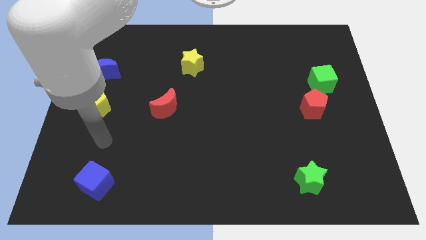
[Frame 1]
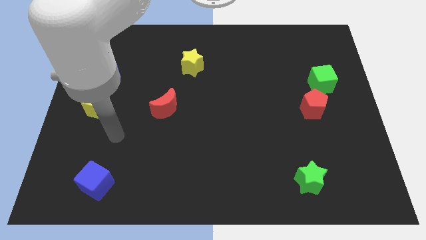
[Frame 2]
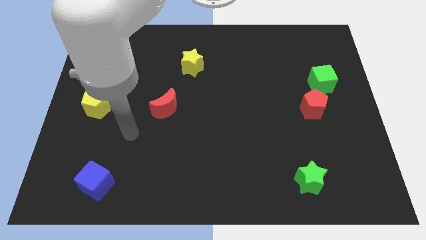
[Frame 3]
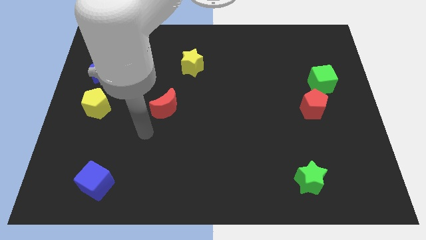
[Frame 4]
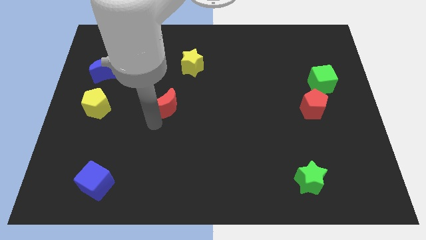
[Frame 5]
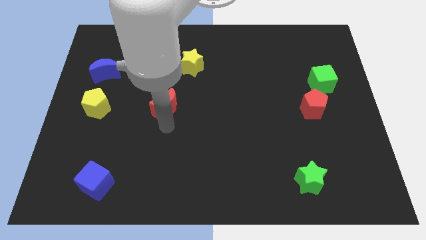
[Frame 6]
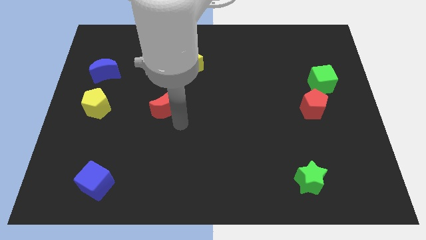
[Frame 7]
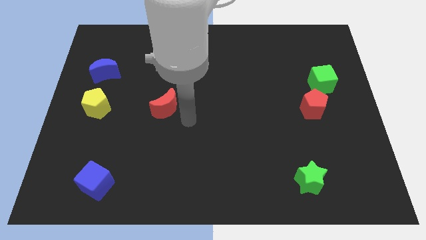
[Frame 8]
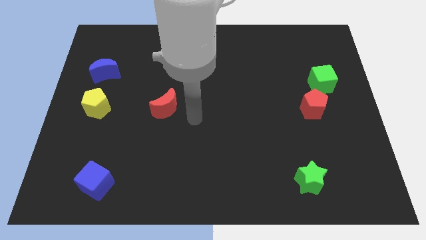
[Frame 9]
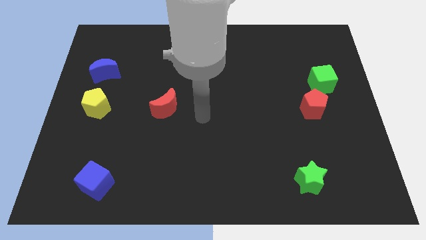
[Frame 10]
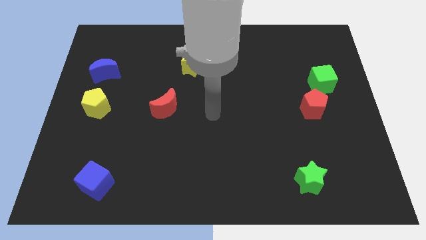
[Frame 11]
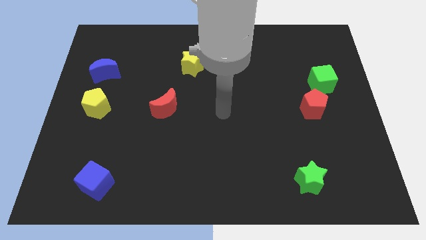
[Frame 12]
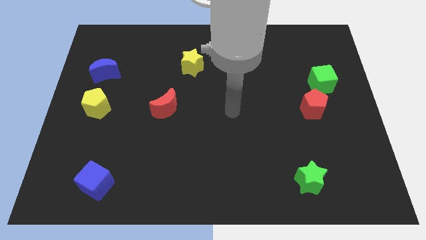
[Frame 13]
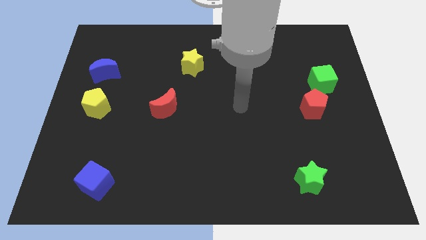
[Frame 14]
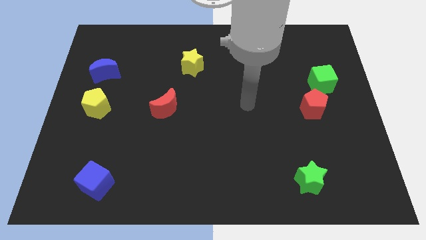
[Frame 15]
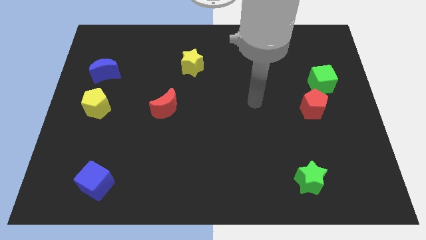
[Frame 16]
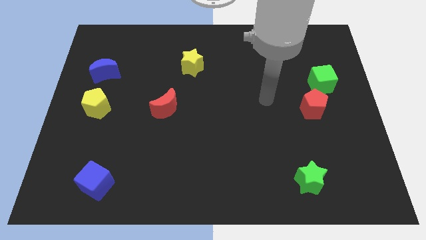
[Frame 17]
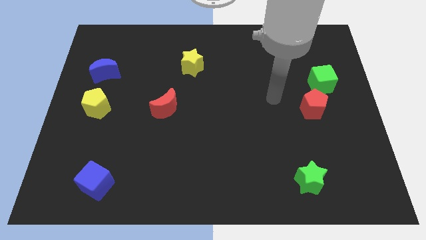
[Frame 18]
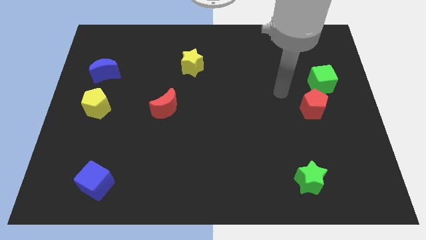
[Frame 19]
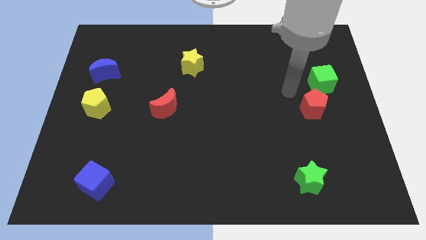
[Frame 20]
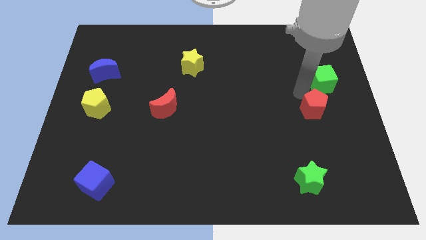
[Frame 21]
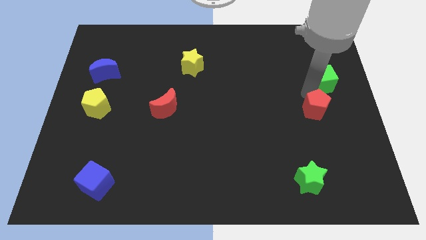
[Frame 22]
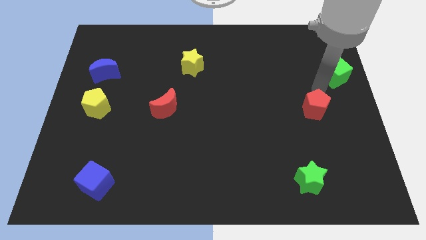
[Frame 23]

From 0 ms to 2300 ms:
pull the red pentagon apart from the green cube

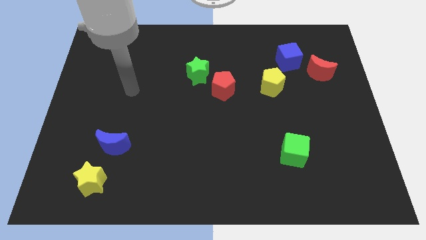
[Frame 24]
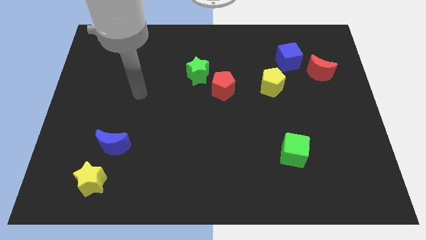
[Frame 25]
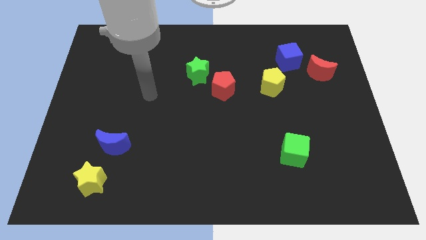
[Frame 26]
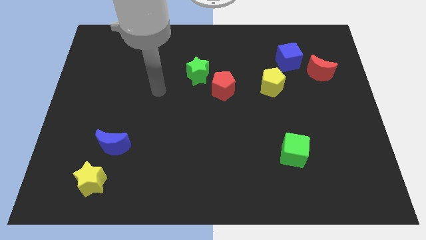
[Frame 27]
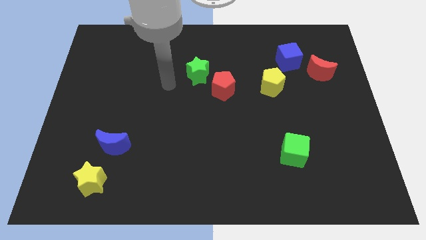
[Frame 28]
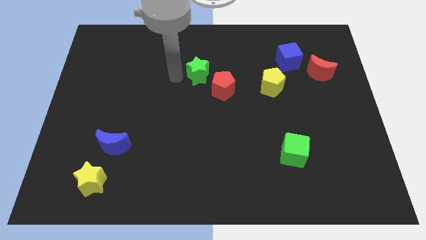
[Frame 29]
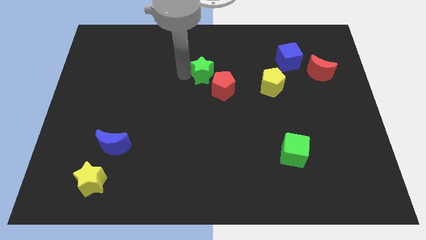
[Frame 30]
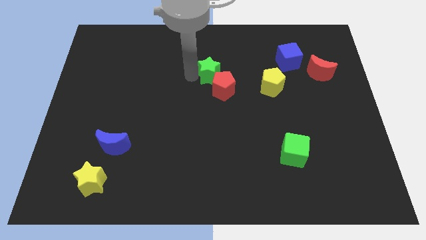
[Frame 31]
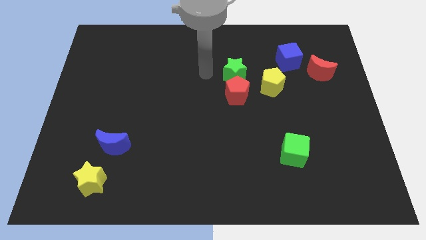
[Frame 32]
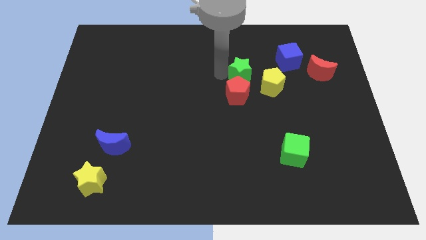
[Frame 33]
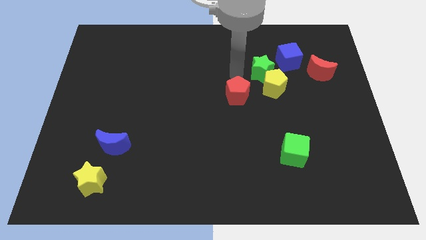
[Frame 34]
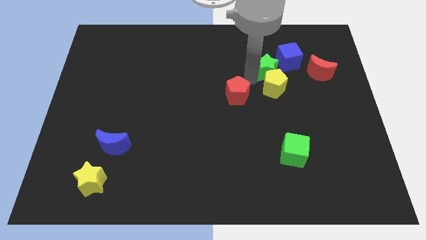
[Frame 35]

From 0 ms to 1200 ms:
move the red pentagon away from the green star

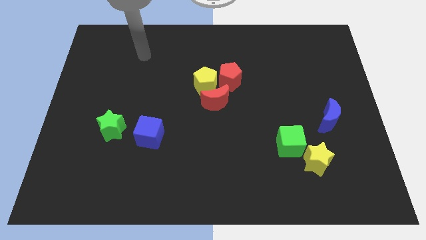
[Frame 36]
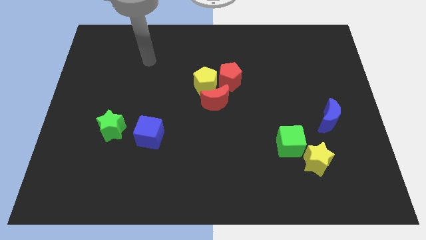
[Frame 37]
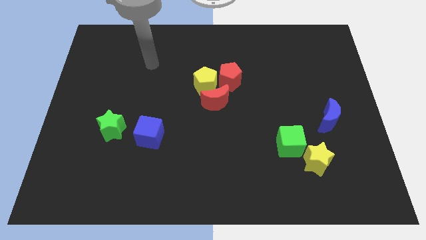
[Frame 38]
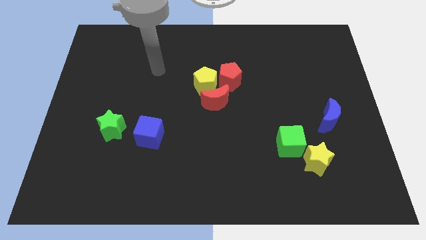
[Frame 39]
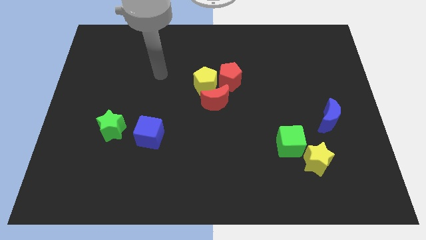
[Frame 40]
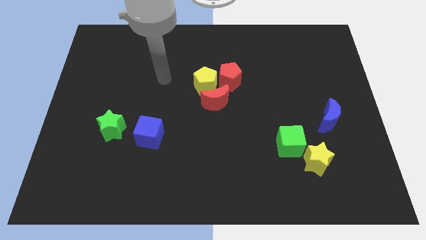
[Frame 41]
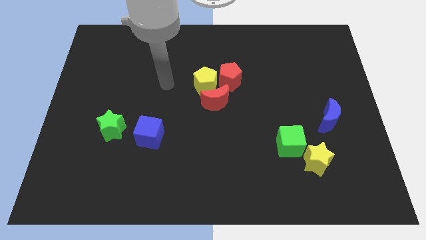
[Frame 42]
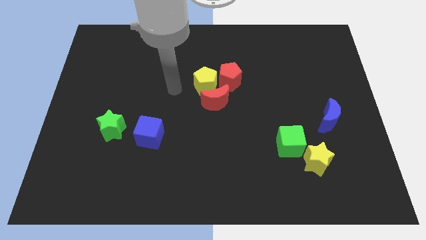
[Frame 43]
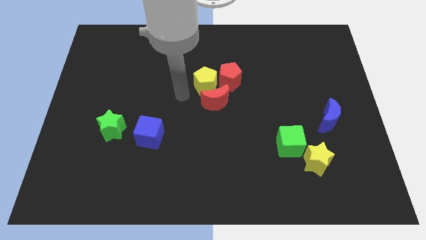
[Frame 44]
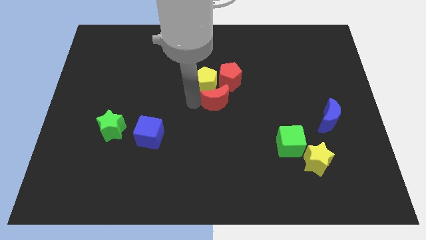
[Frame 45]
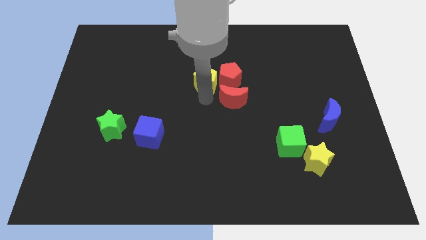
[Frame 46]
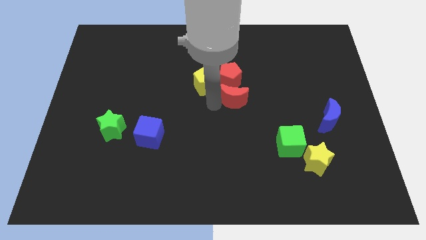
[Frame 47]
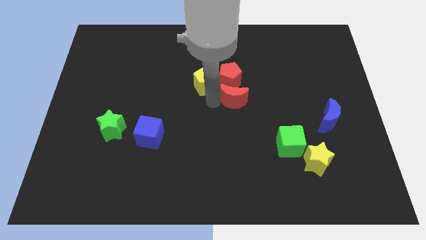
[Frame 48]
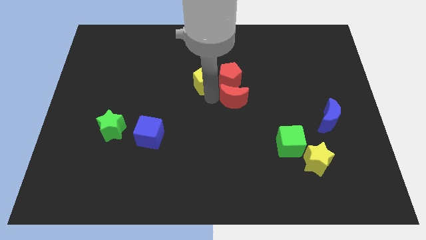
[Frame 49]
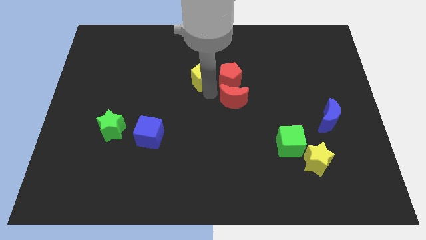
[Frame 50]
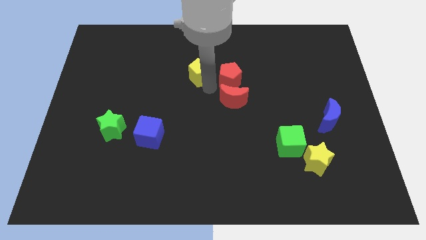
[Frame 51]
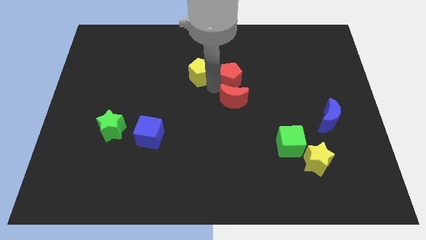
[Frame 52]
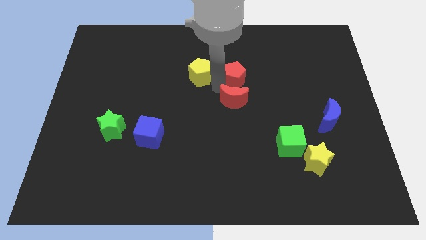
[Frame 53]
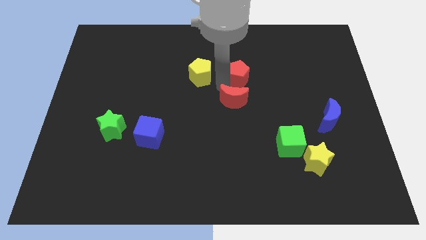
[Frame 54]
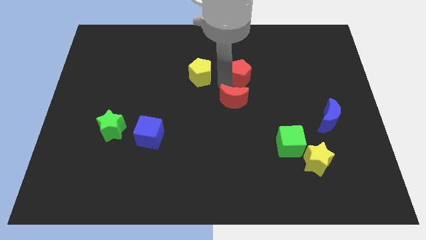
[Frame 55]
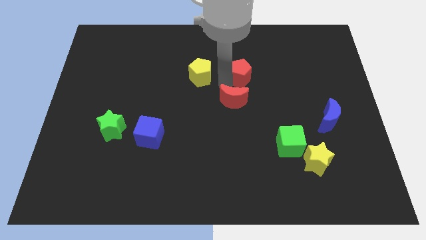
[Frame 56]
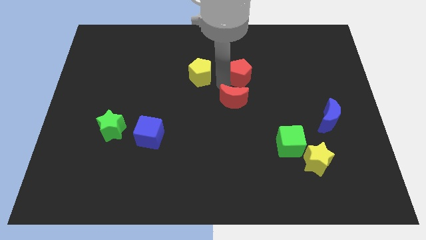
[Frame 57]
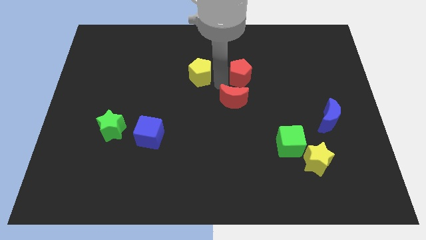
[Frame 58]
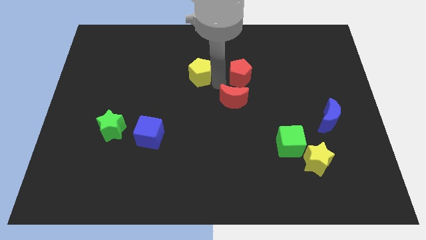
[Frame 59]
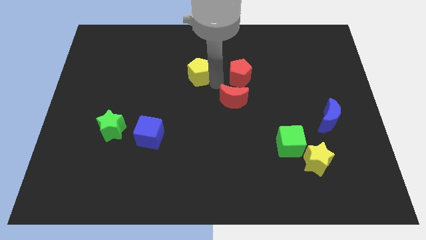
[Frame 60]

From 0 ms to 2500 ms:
pull the yellow pentagon apart from the red moon and red pentagon

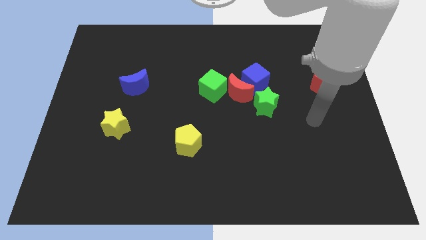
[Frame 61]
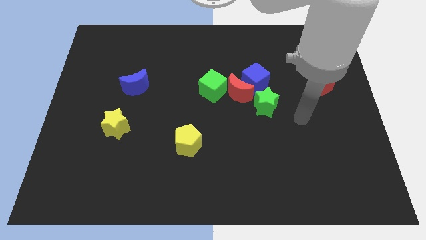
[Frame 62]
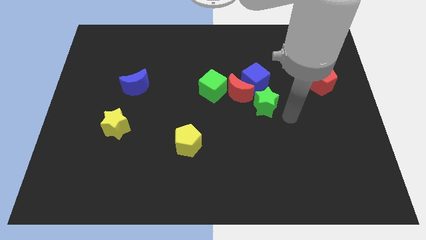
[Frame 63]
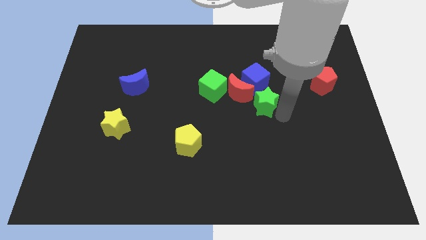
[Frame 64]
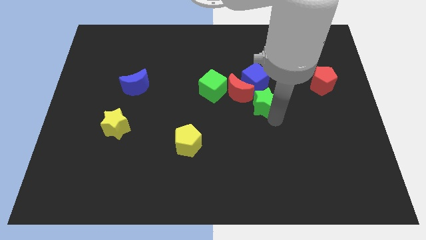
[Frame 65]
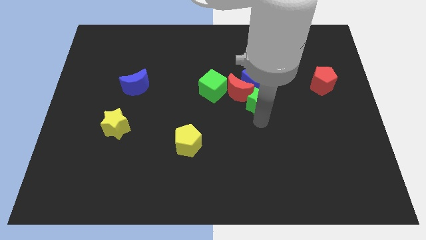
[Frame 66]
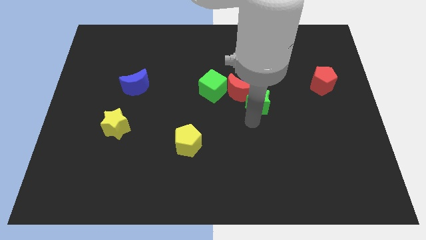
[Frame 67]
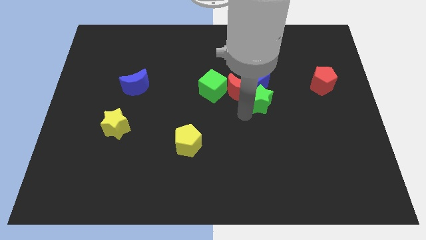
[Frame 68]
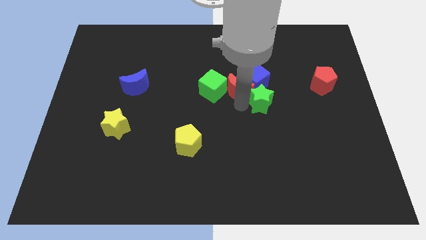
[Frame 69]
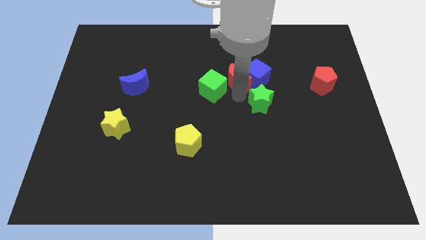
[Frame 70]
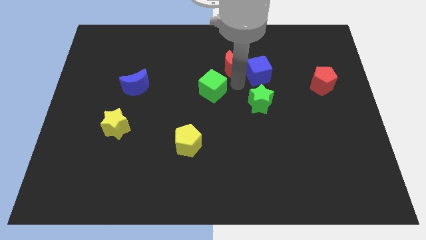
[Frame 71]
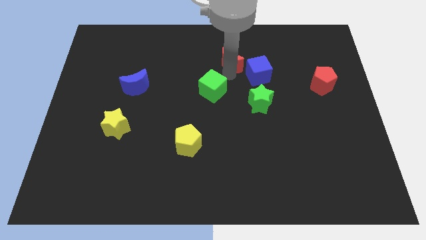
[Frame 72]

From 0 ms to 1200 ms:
separate the green cube from the red moon

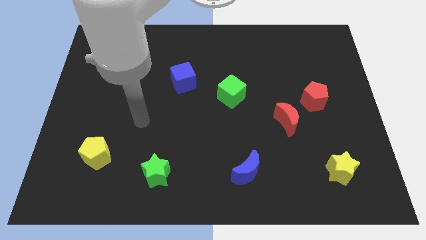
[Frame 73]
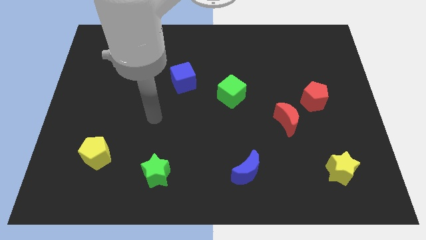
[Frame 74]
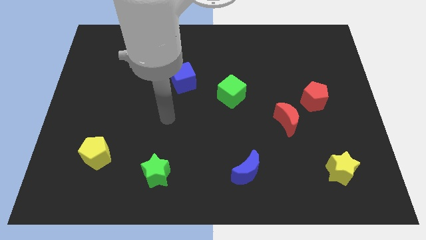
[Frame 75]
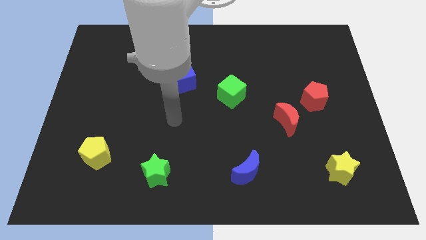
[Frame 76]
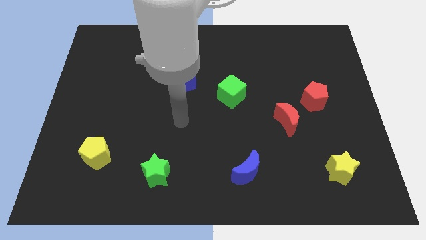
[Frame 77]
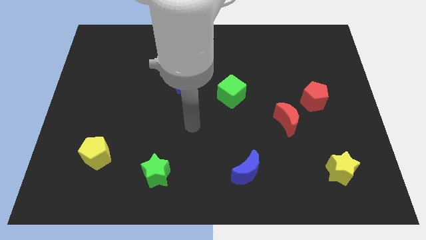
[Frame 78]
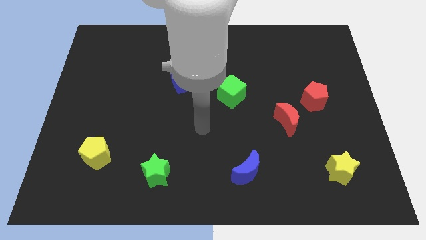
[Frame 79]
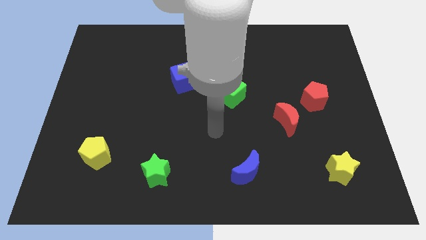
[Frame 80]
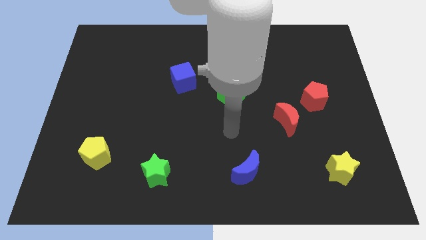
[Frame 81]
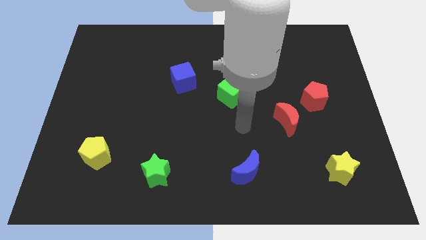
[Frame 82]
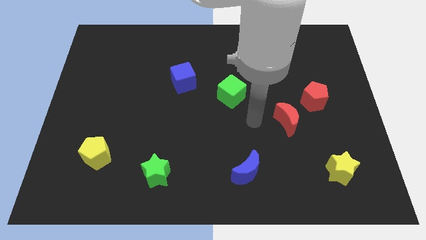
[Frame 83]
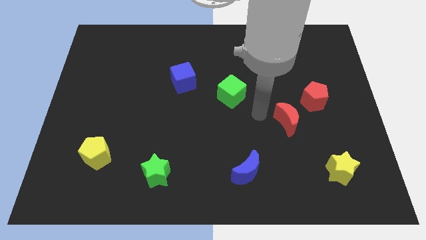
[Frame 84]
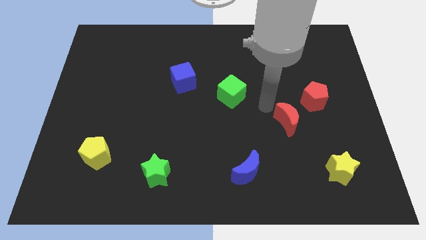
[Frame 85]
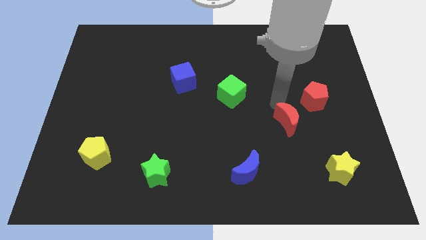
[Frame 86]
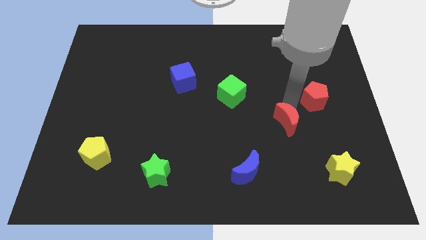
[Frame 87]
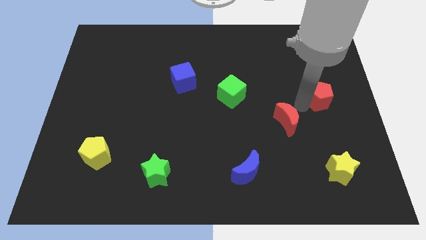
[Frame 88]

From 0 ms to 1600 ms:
move the red moon away from the red pentagon

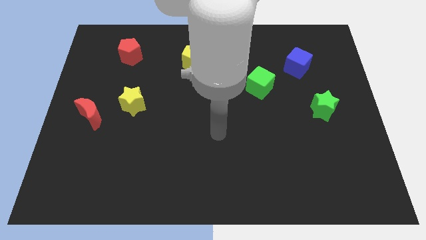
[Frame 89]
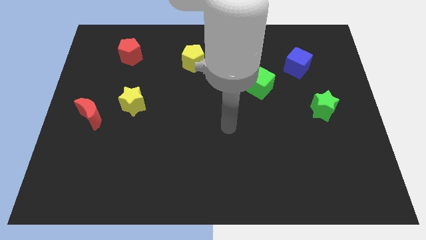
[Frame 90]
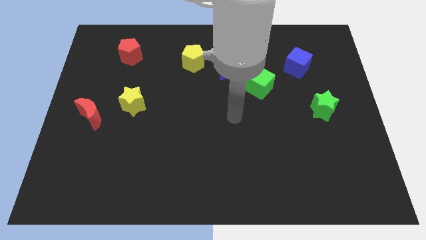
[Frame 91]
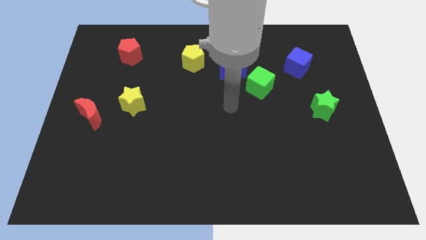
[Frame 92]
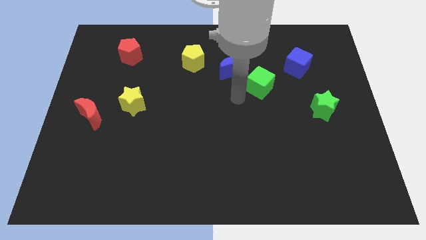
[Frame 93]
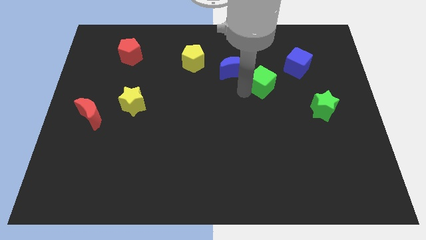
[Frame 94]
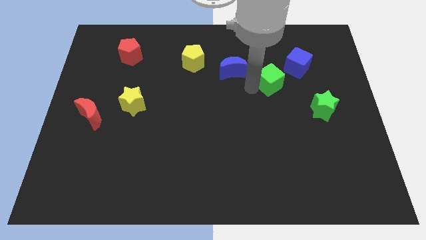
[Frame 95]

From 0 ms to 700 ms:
pull the blue moon apart from the green cube
